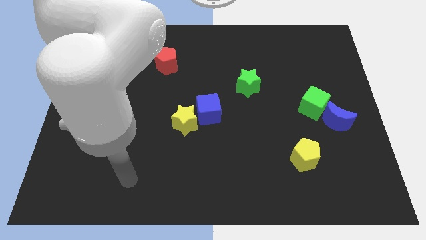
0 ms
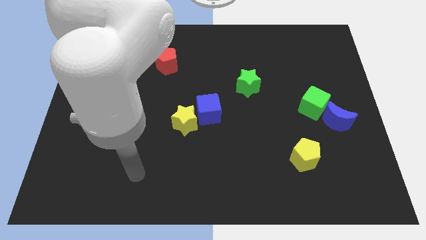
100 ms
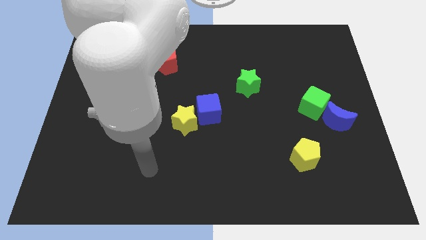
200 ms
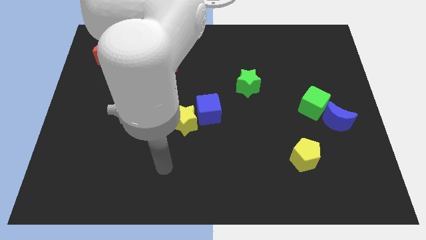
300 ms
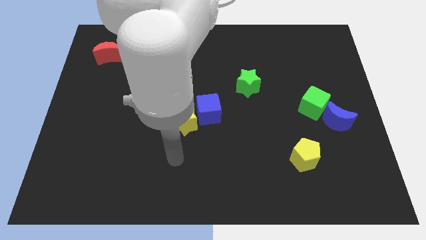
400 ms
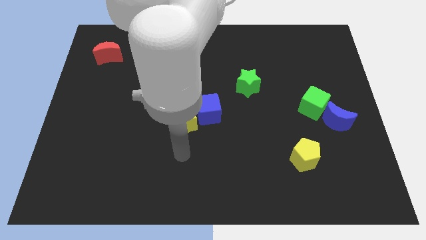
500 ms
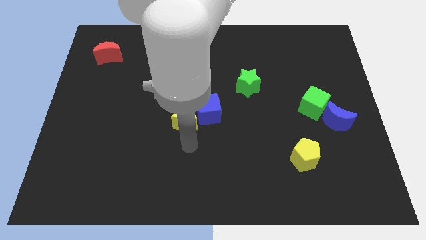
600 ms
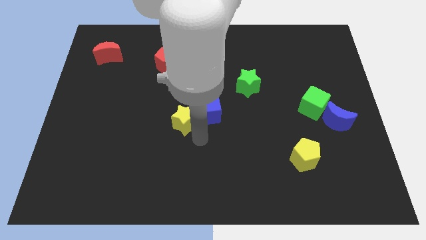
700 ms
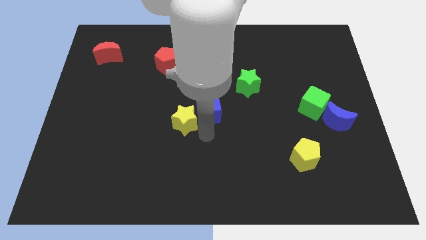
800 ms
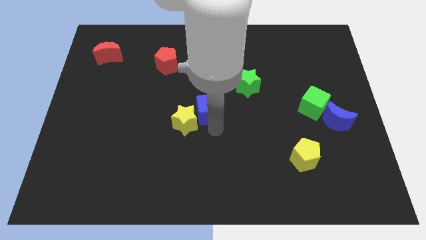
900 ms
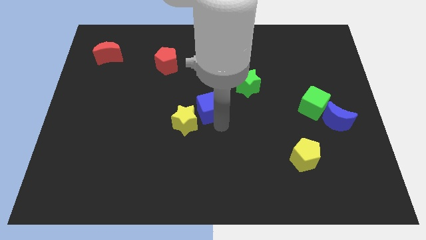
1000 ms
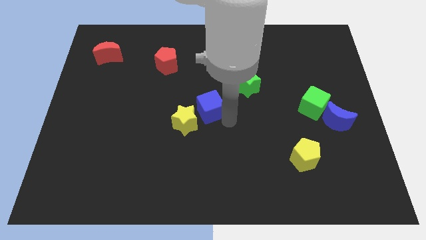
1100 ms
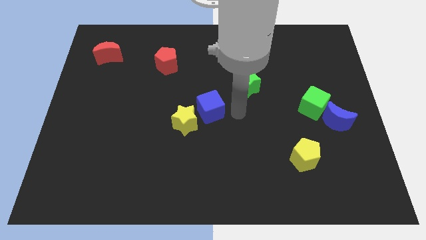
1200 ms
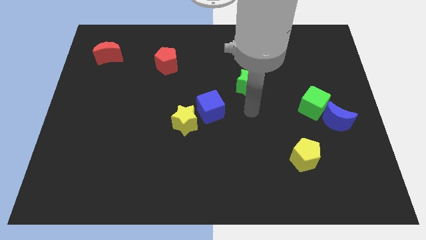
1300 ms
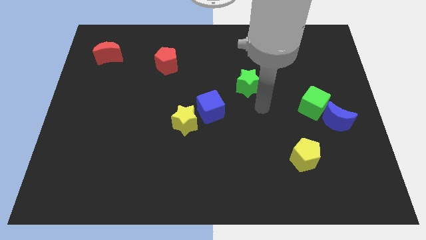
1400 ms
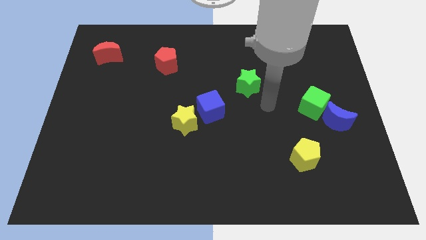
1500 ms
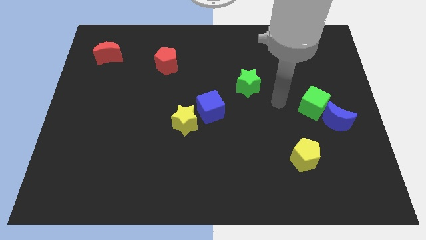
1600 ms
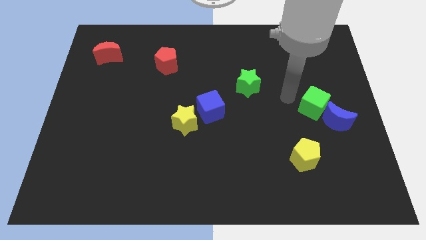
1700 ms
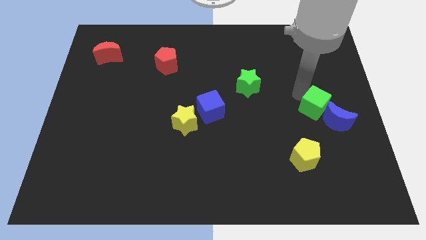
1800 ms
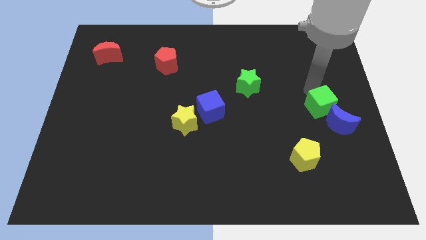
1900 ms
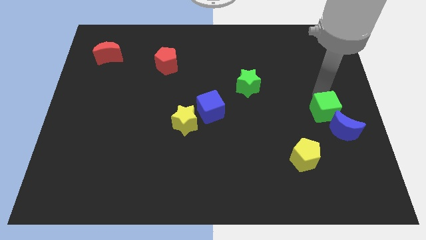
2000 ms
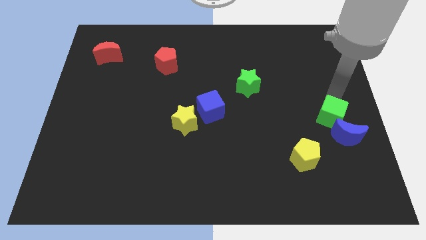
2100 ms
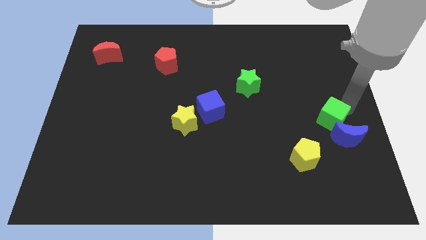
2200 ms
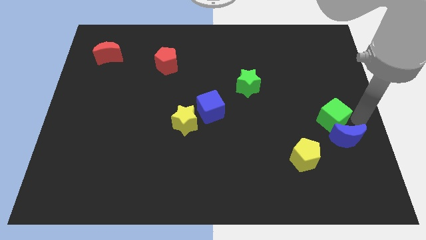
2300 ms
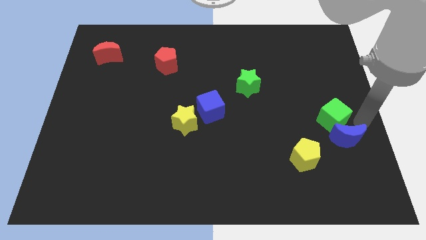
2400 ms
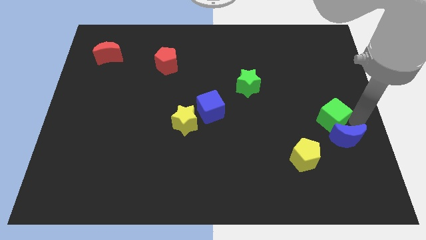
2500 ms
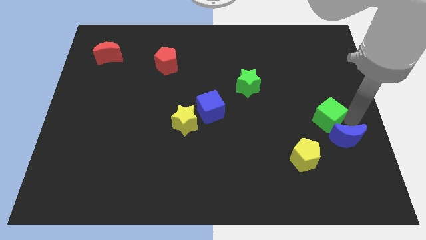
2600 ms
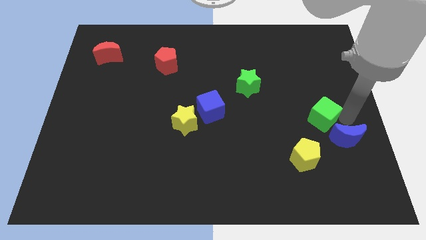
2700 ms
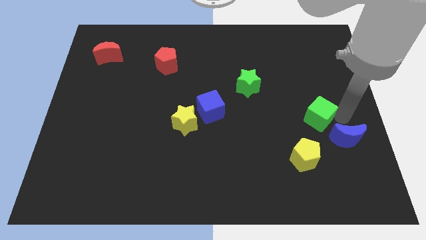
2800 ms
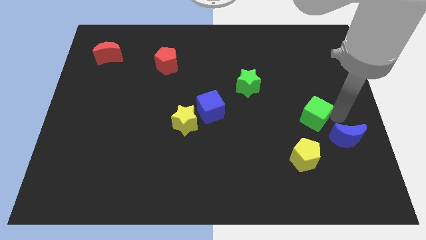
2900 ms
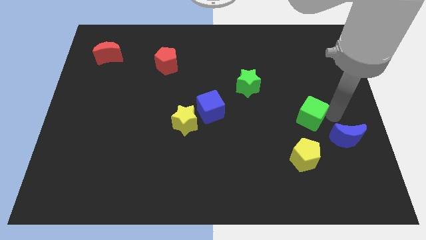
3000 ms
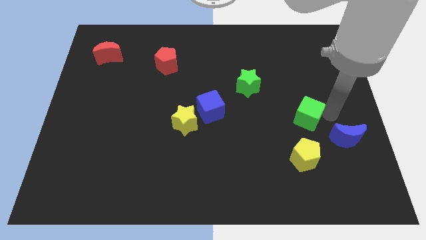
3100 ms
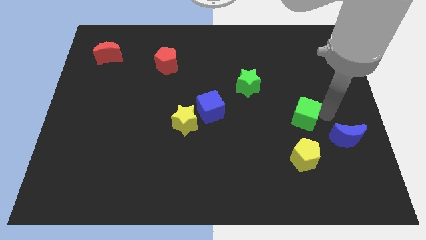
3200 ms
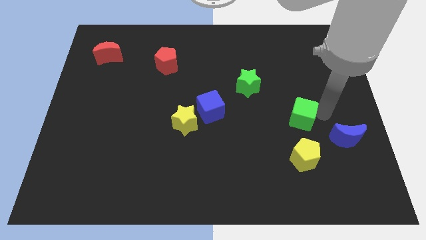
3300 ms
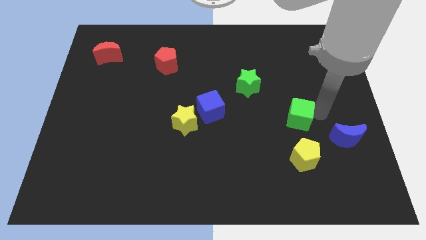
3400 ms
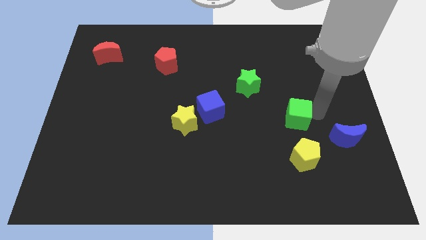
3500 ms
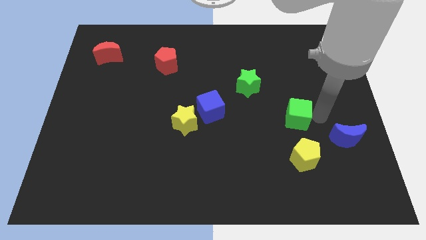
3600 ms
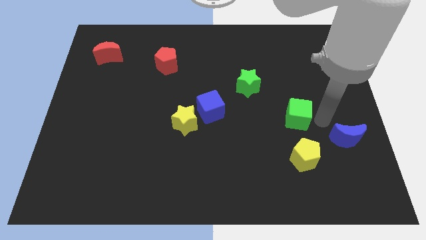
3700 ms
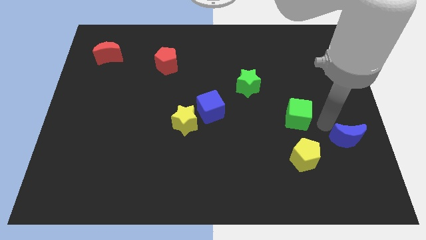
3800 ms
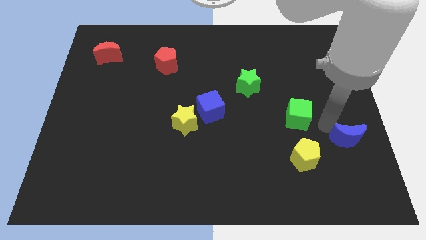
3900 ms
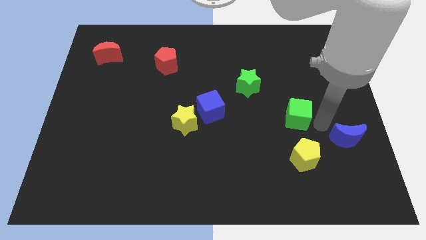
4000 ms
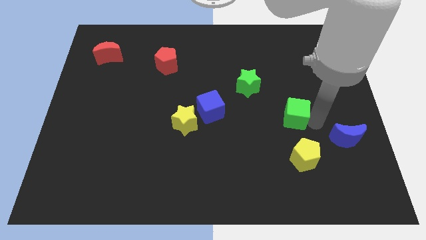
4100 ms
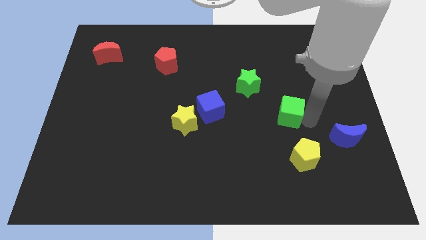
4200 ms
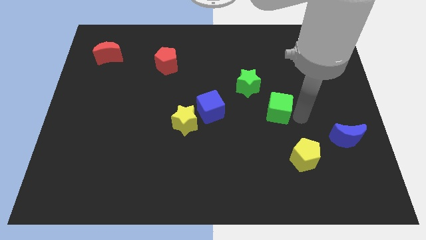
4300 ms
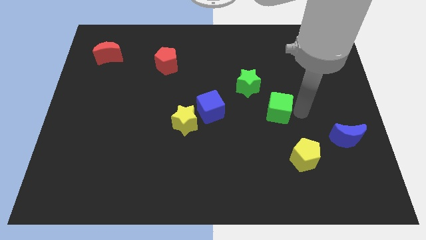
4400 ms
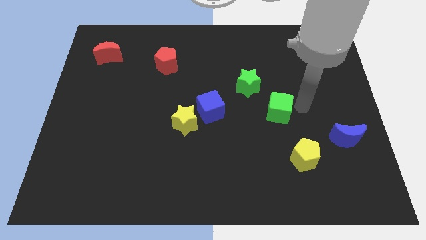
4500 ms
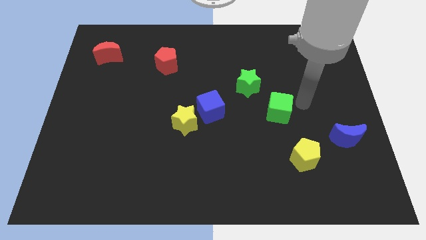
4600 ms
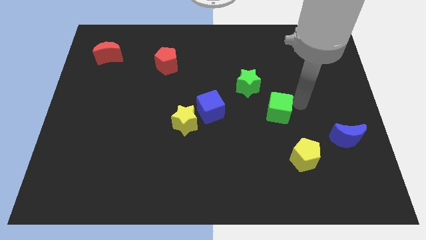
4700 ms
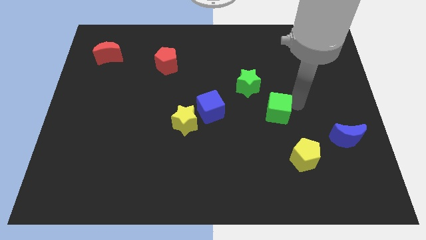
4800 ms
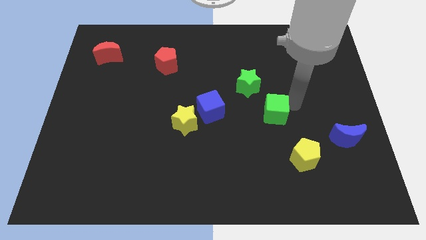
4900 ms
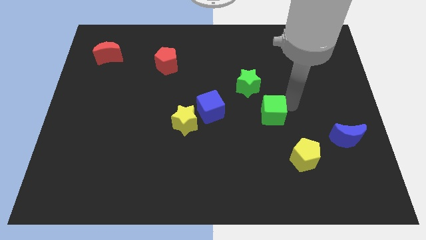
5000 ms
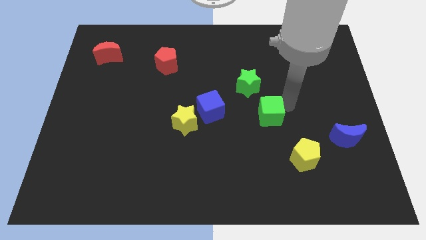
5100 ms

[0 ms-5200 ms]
slide the green cube to the bottom side of the green star

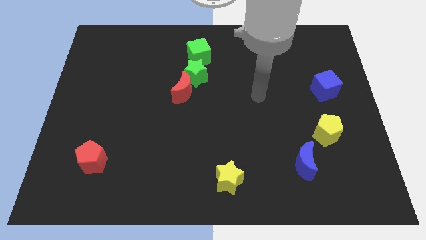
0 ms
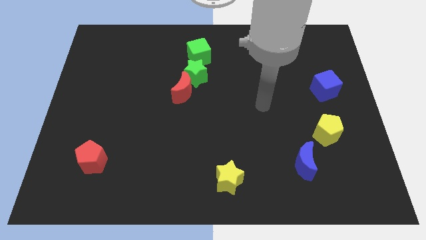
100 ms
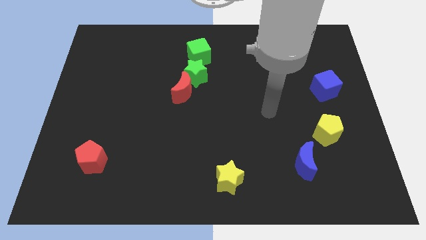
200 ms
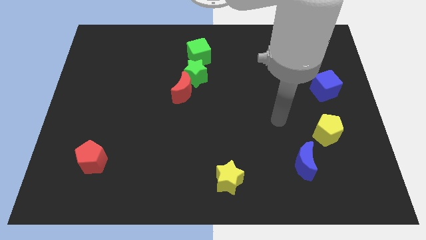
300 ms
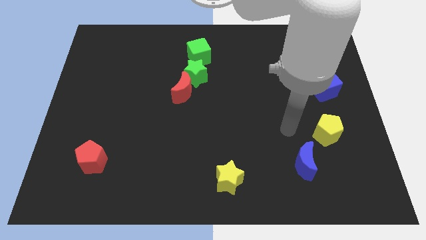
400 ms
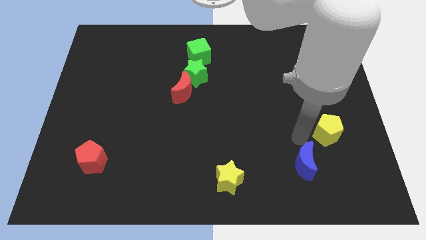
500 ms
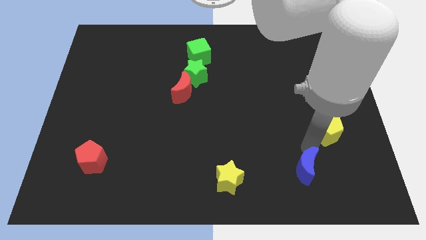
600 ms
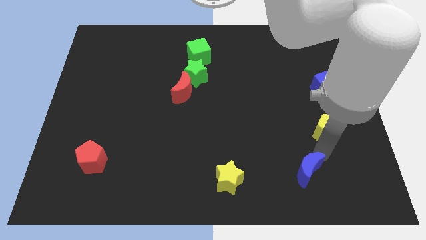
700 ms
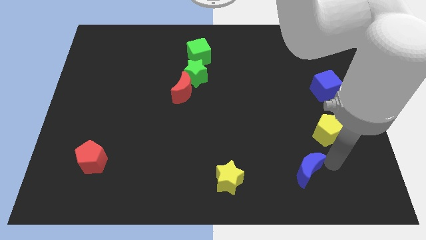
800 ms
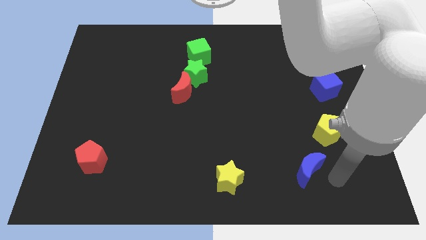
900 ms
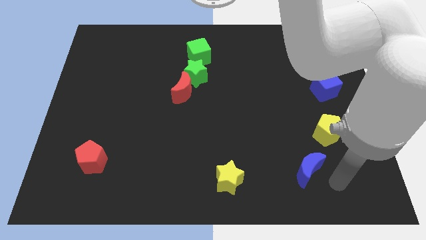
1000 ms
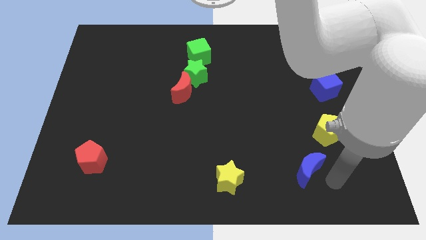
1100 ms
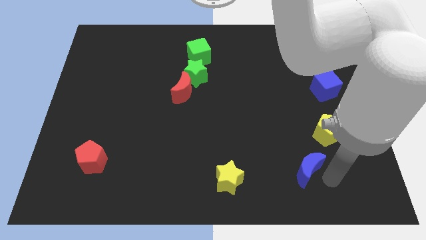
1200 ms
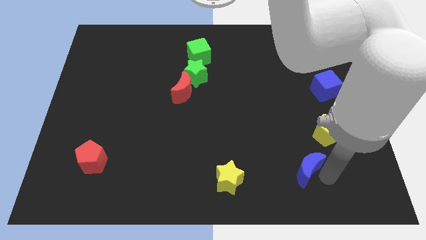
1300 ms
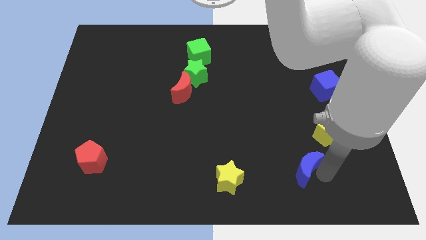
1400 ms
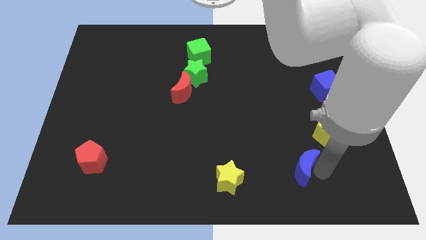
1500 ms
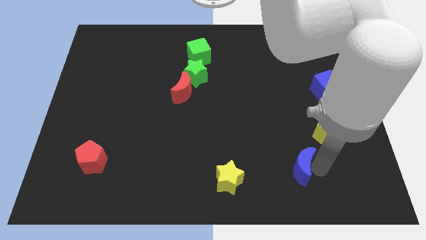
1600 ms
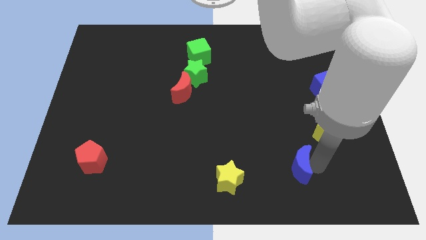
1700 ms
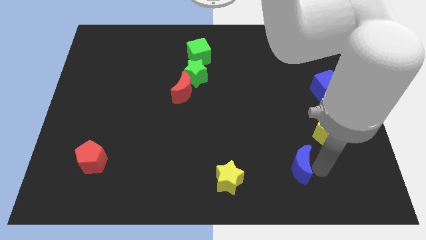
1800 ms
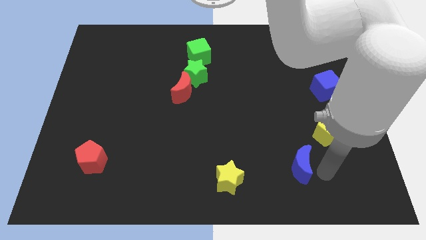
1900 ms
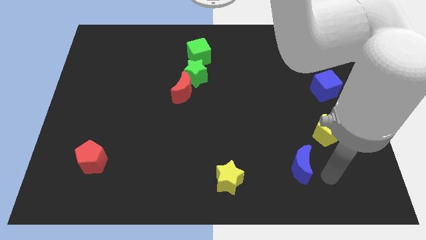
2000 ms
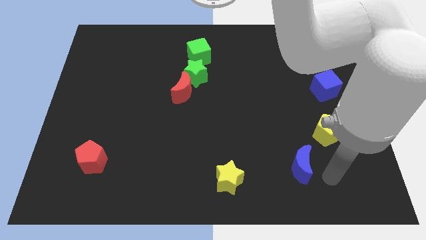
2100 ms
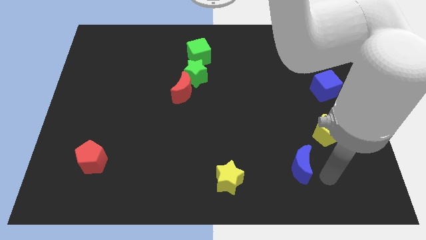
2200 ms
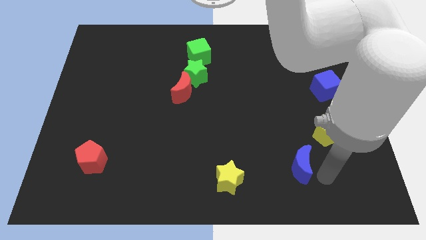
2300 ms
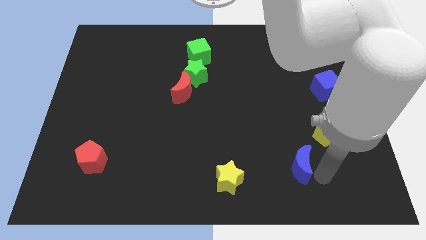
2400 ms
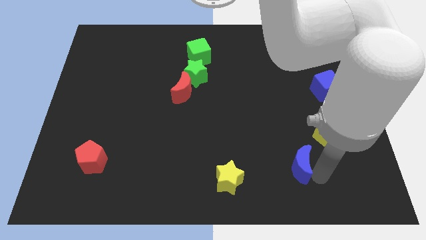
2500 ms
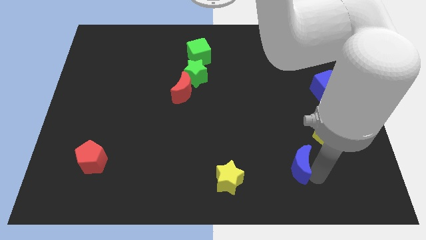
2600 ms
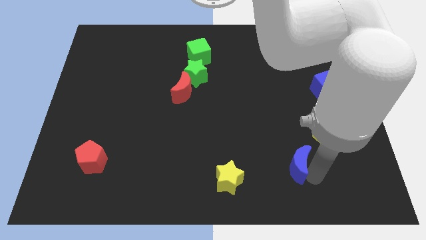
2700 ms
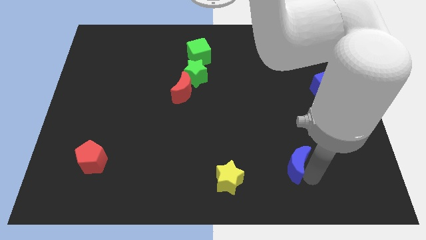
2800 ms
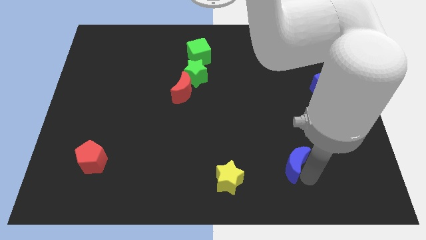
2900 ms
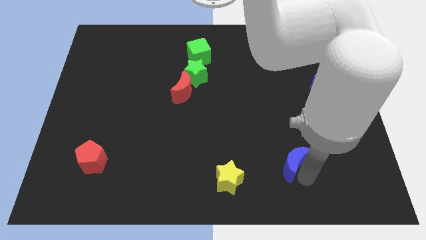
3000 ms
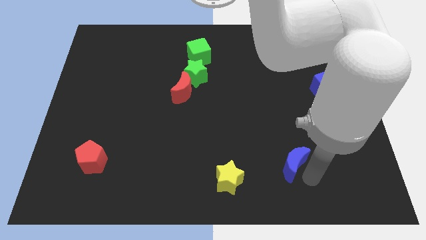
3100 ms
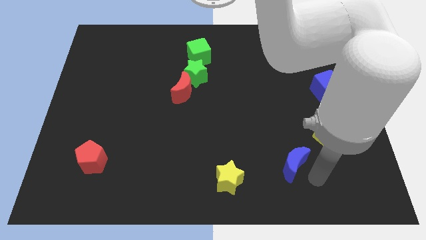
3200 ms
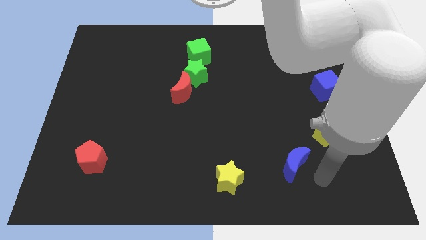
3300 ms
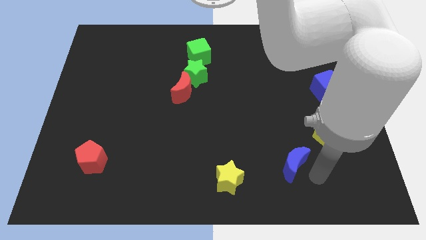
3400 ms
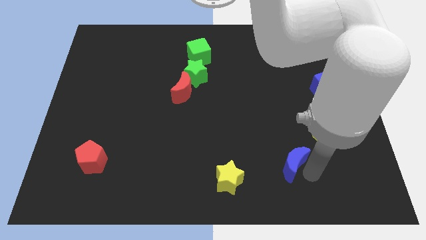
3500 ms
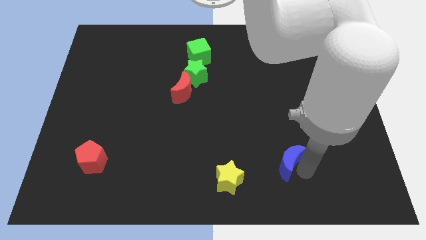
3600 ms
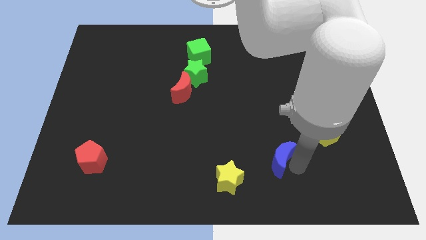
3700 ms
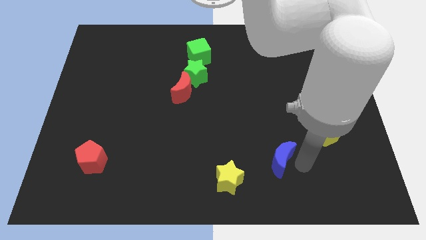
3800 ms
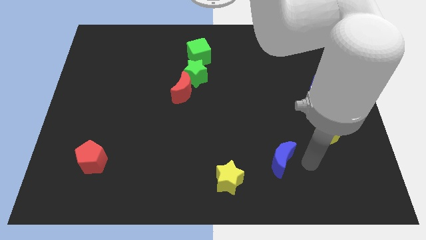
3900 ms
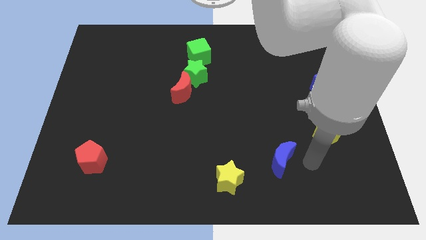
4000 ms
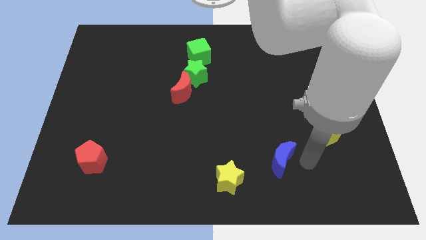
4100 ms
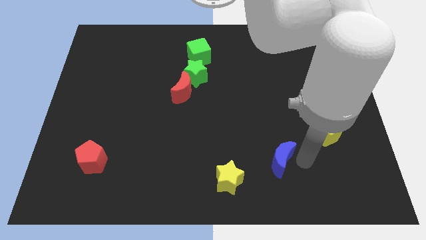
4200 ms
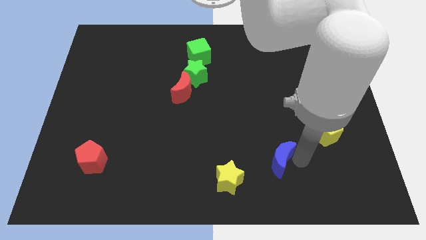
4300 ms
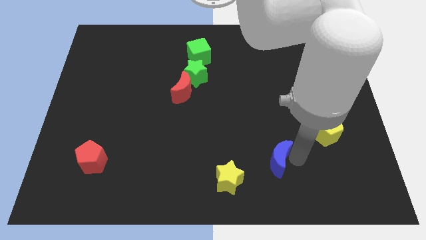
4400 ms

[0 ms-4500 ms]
put the blue moon to the top right of the yellow star
